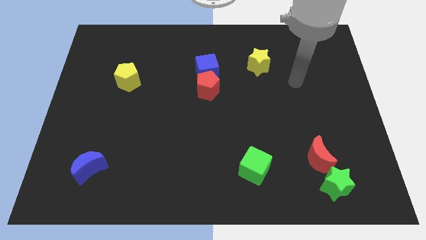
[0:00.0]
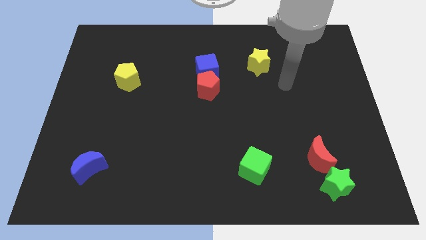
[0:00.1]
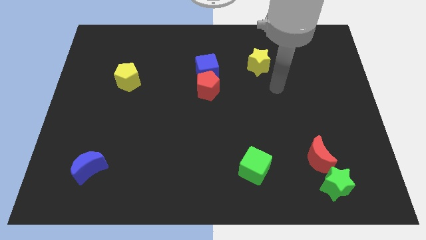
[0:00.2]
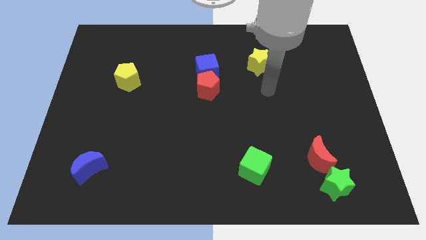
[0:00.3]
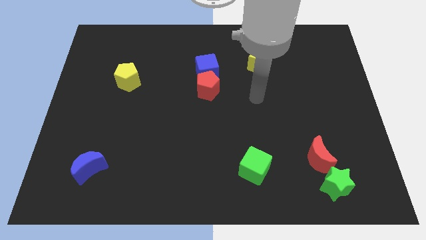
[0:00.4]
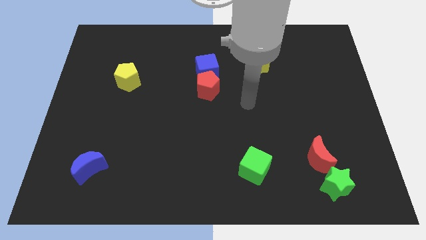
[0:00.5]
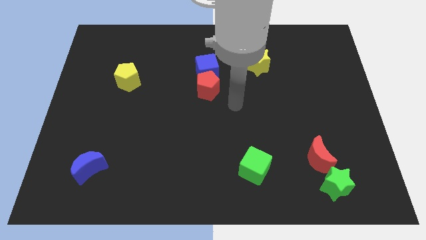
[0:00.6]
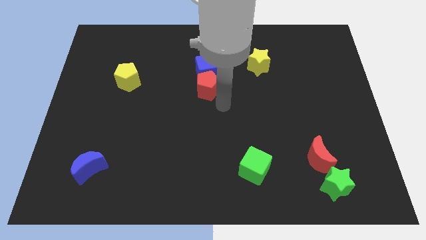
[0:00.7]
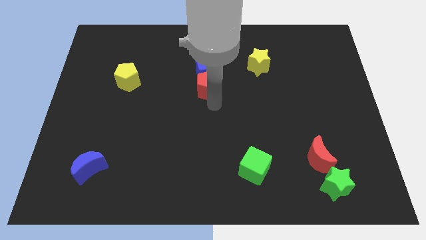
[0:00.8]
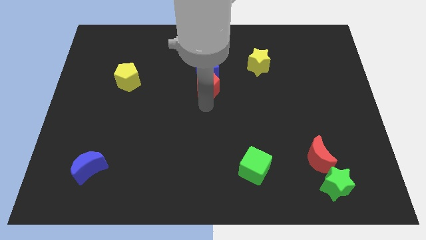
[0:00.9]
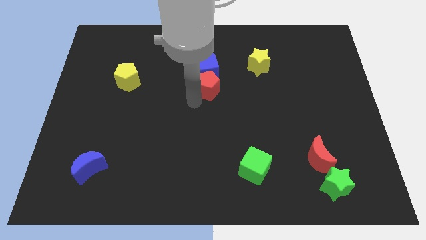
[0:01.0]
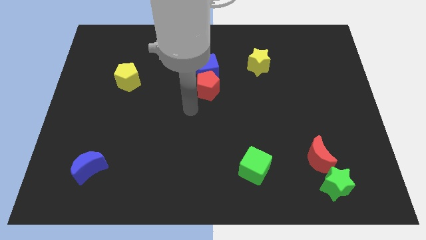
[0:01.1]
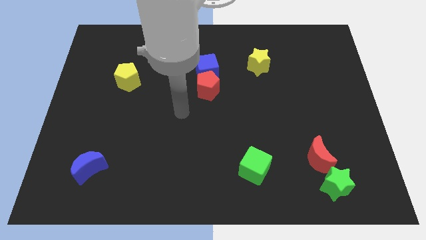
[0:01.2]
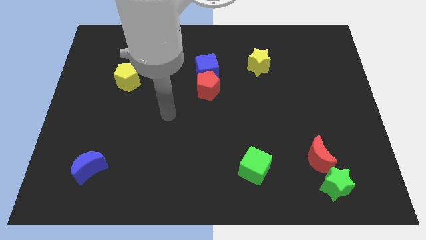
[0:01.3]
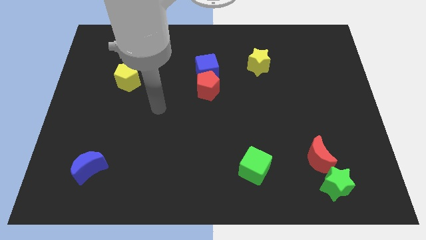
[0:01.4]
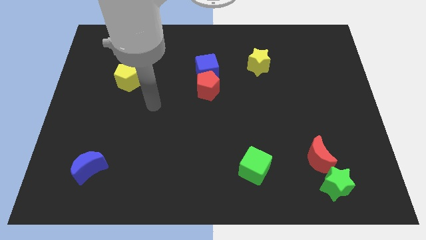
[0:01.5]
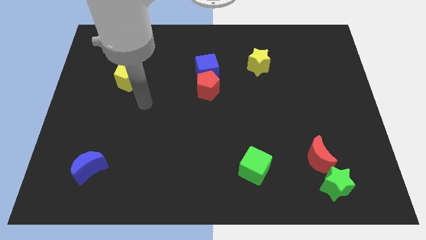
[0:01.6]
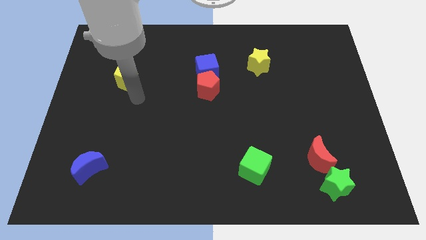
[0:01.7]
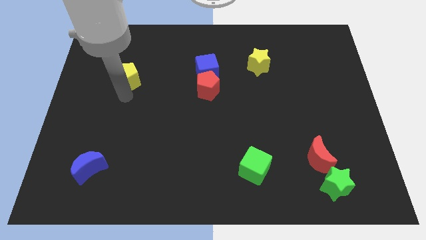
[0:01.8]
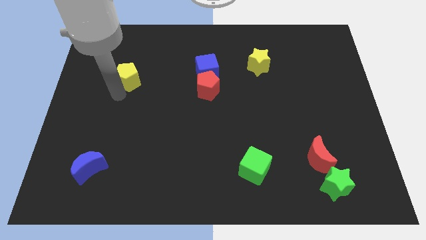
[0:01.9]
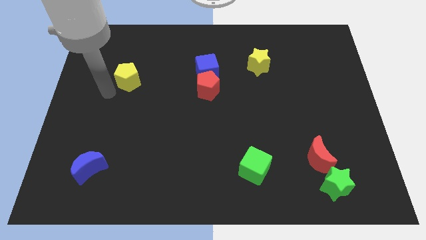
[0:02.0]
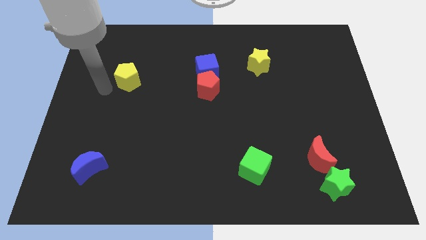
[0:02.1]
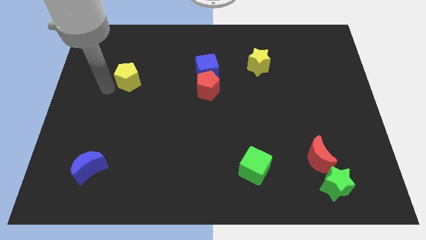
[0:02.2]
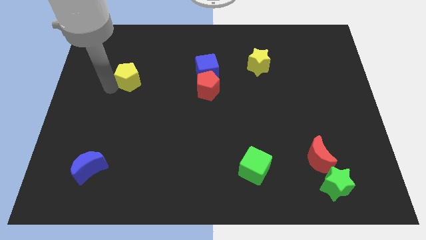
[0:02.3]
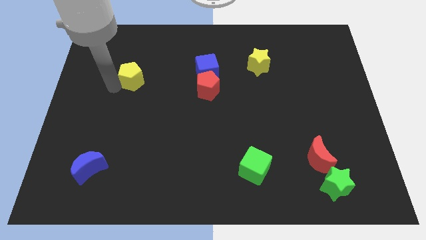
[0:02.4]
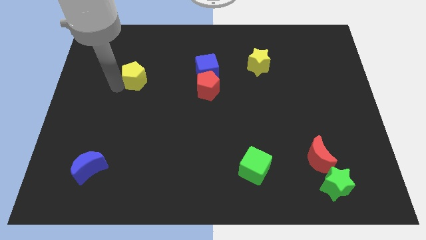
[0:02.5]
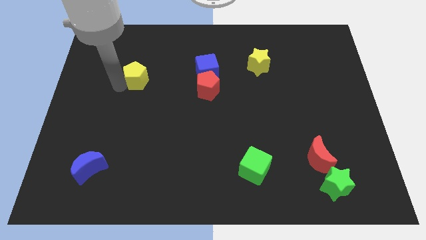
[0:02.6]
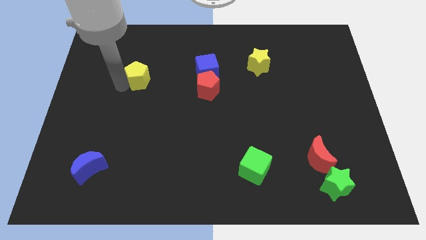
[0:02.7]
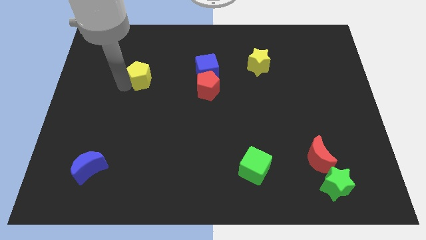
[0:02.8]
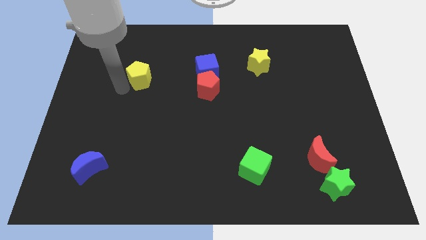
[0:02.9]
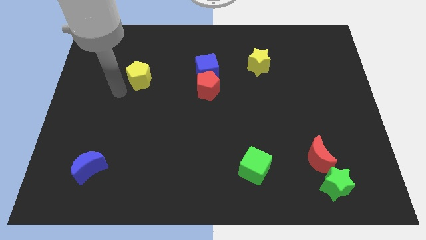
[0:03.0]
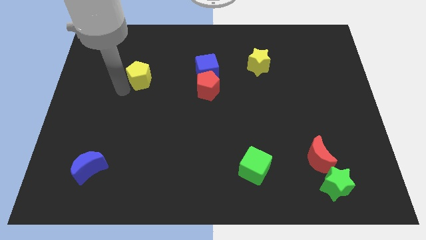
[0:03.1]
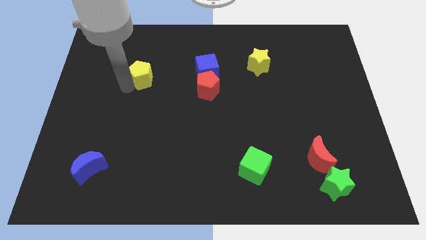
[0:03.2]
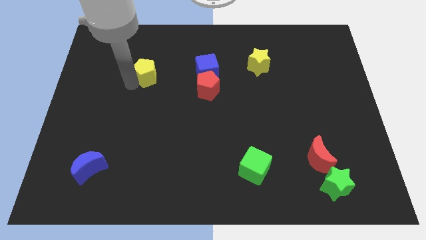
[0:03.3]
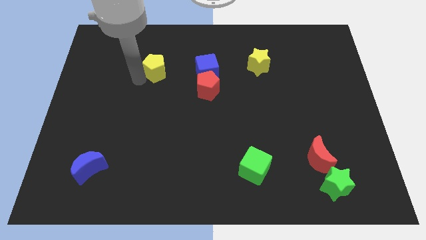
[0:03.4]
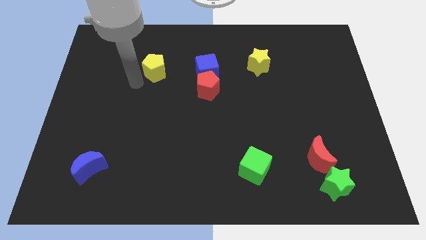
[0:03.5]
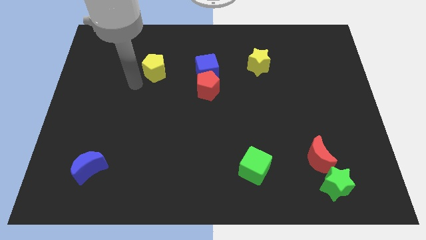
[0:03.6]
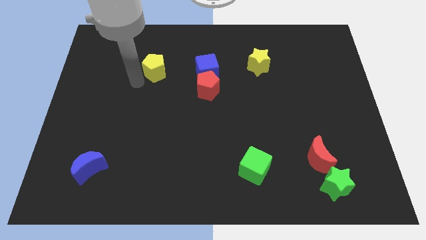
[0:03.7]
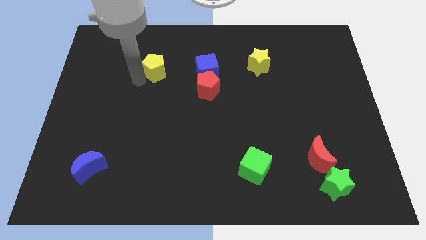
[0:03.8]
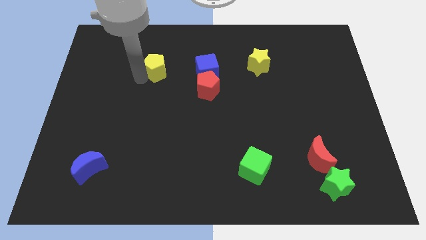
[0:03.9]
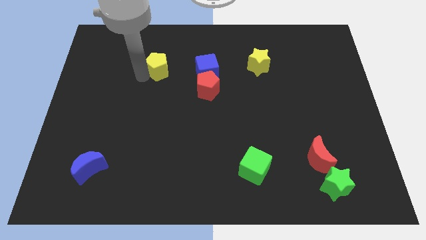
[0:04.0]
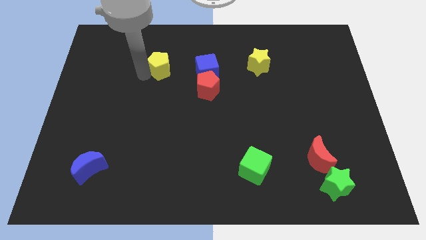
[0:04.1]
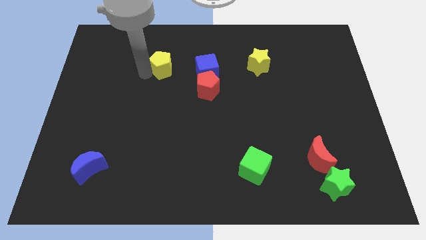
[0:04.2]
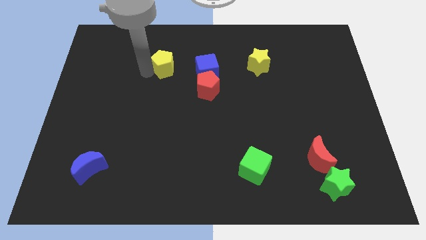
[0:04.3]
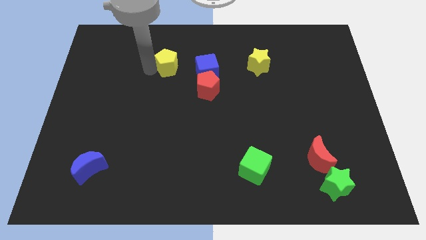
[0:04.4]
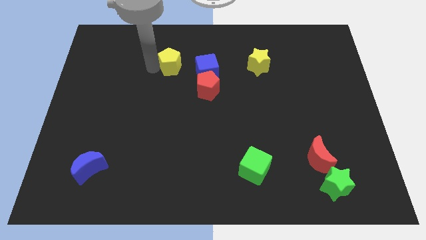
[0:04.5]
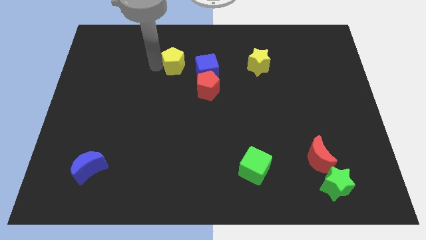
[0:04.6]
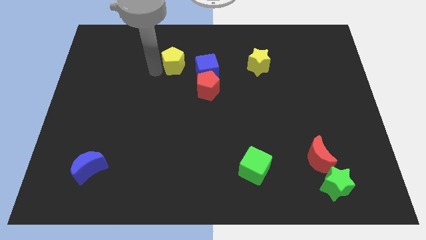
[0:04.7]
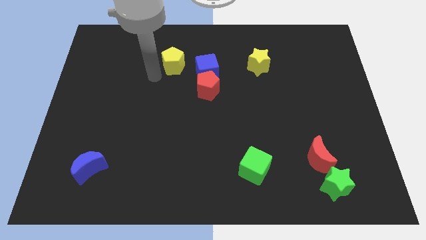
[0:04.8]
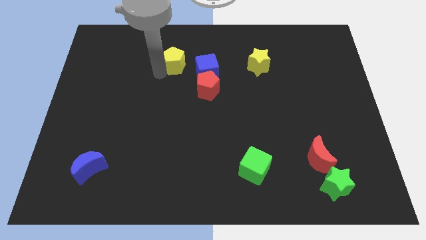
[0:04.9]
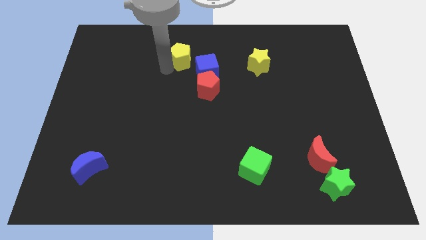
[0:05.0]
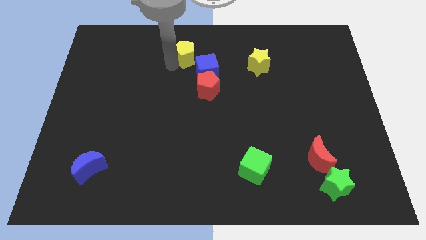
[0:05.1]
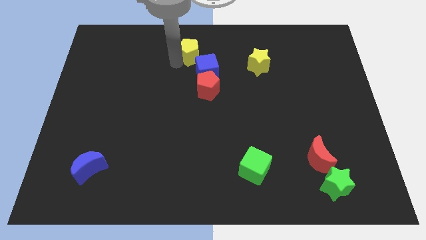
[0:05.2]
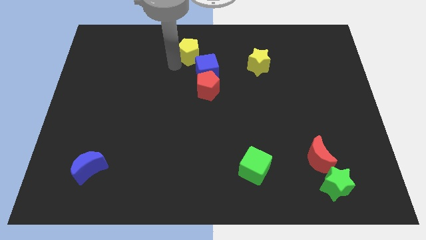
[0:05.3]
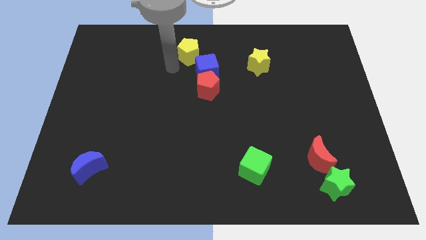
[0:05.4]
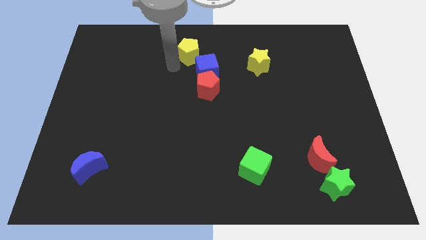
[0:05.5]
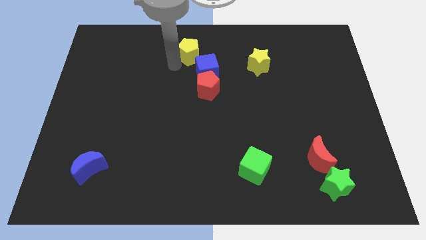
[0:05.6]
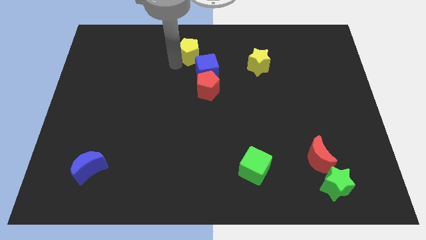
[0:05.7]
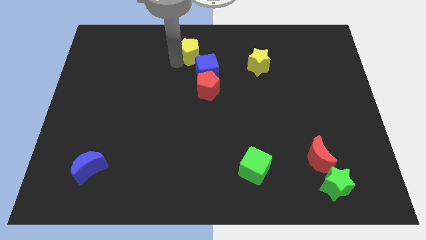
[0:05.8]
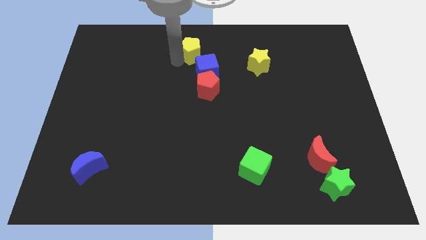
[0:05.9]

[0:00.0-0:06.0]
push the yellow pentagon to the top

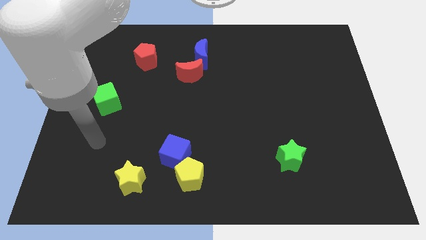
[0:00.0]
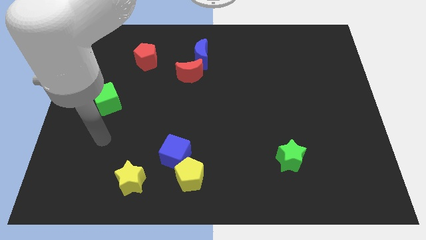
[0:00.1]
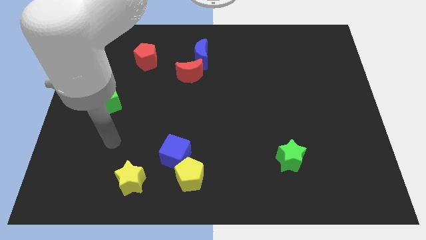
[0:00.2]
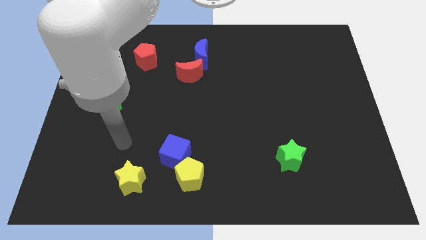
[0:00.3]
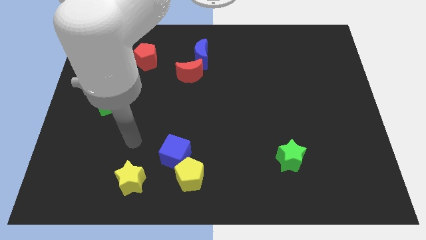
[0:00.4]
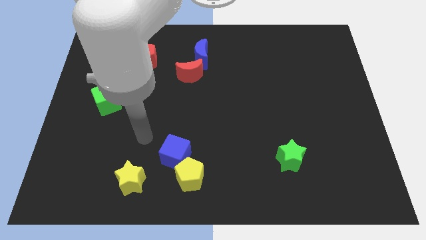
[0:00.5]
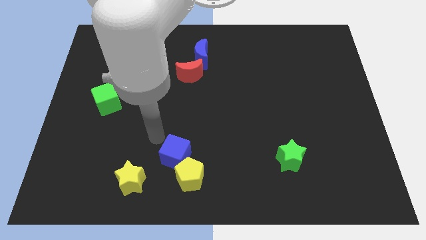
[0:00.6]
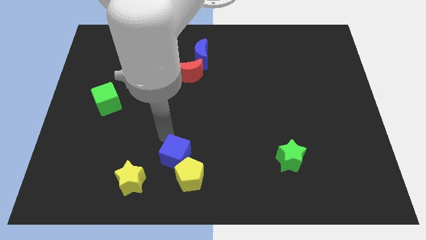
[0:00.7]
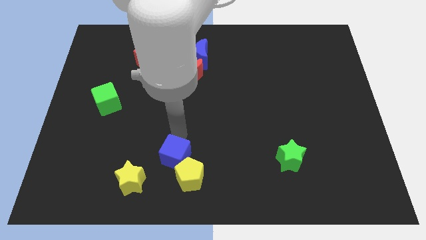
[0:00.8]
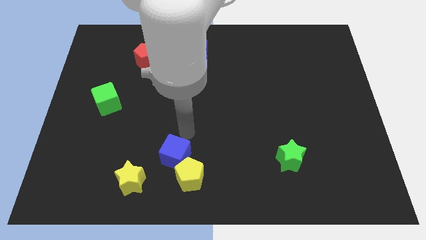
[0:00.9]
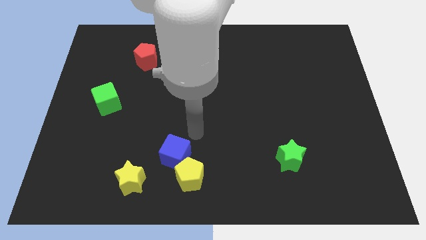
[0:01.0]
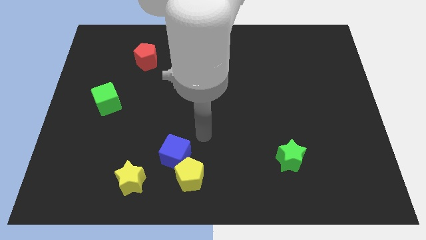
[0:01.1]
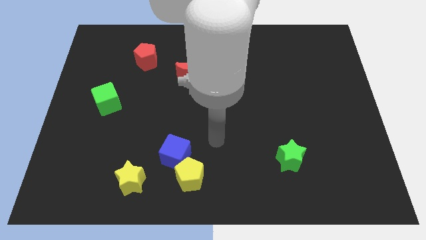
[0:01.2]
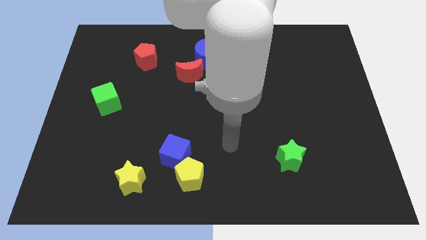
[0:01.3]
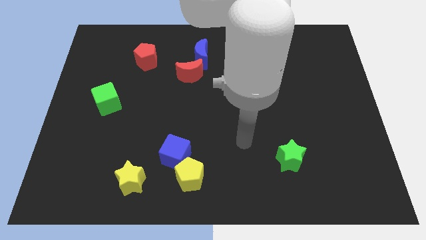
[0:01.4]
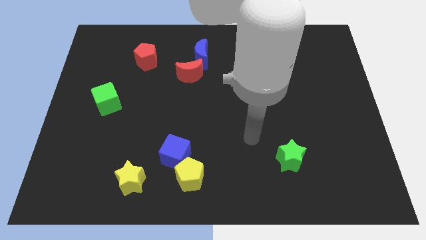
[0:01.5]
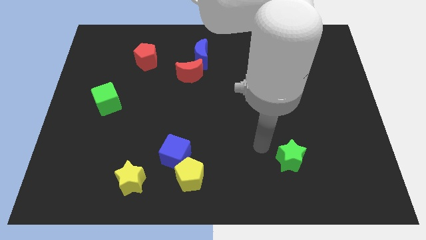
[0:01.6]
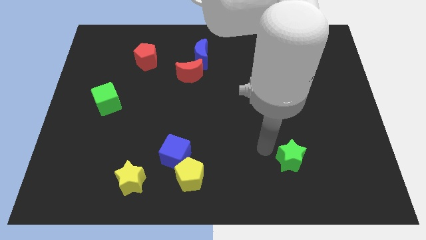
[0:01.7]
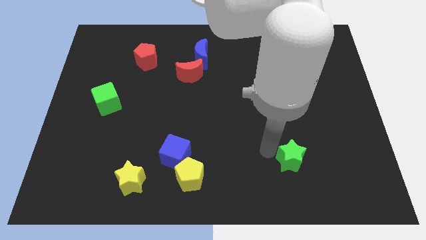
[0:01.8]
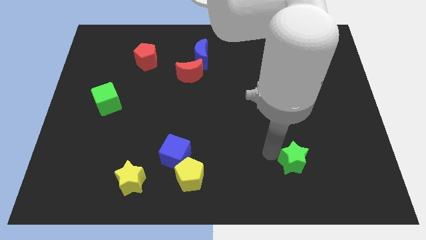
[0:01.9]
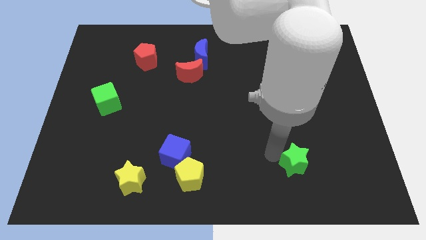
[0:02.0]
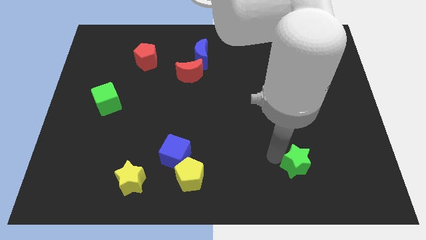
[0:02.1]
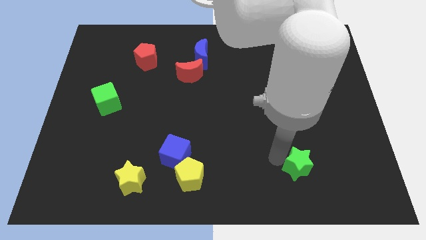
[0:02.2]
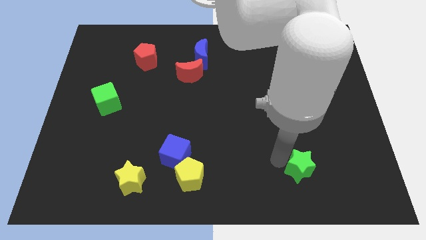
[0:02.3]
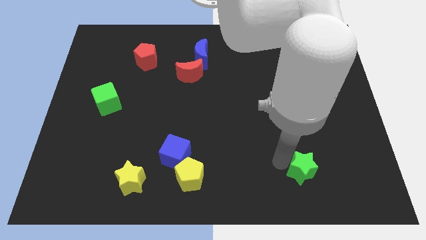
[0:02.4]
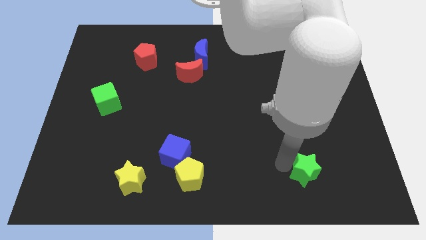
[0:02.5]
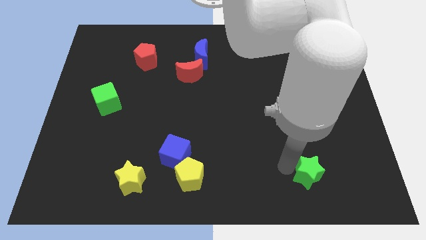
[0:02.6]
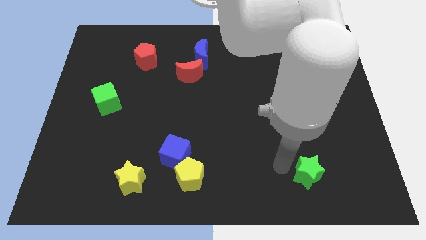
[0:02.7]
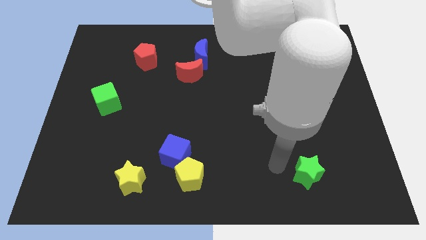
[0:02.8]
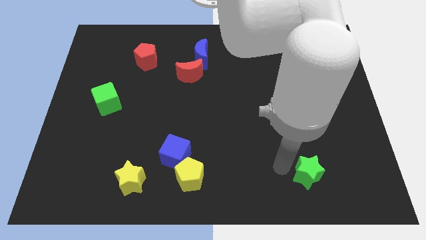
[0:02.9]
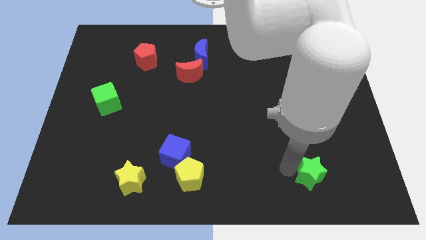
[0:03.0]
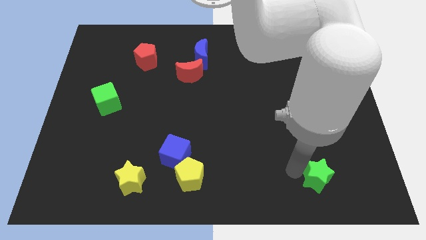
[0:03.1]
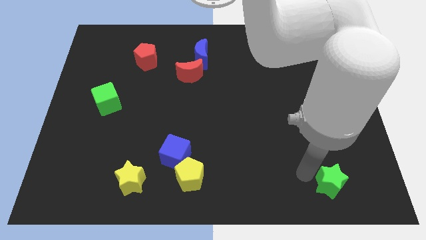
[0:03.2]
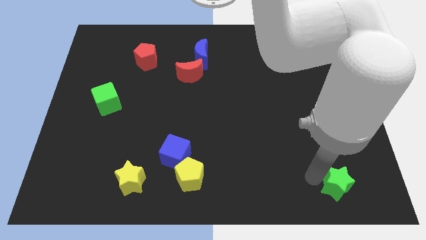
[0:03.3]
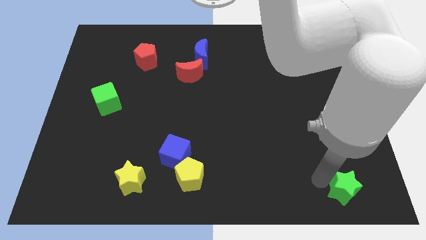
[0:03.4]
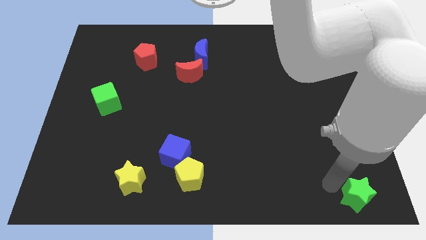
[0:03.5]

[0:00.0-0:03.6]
push the green star to the lower right corner
